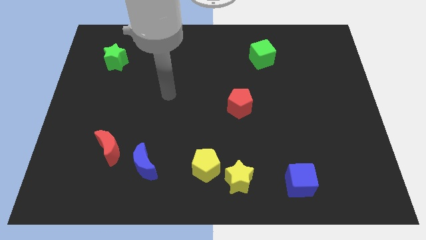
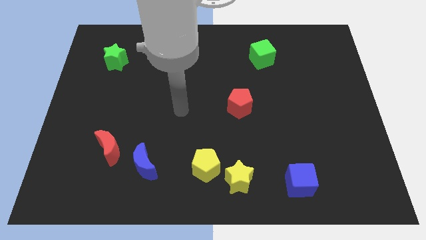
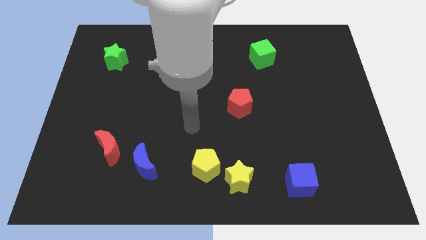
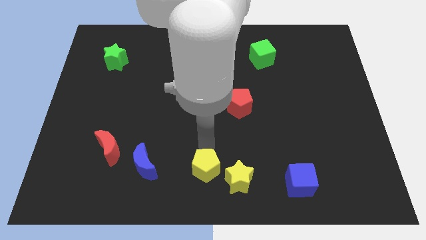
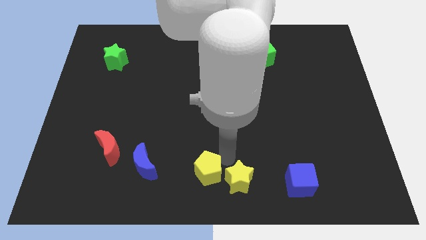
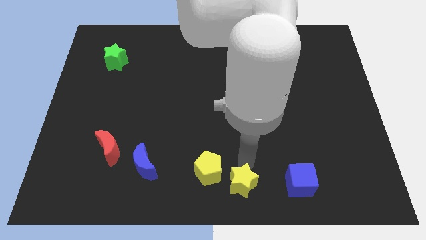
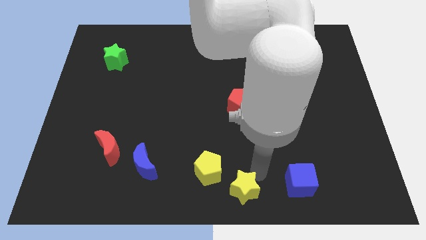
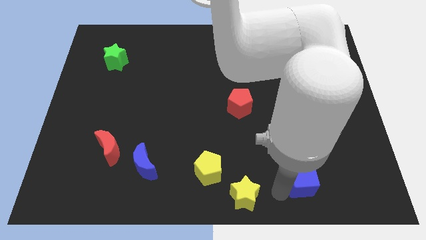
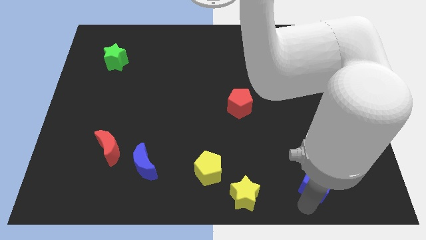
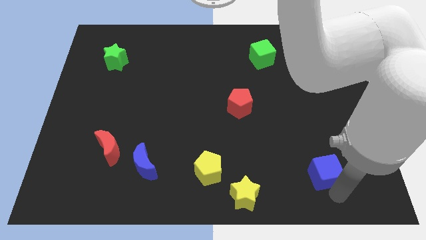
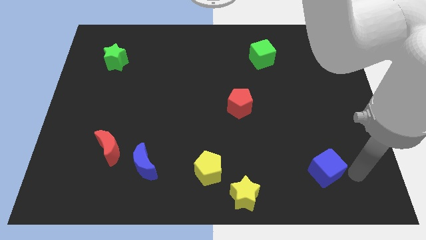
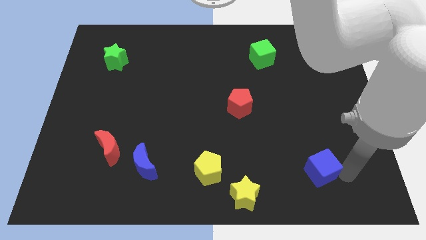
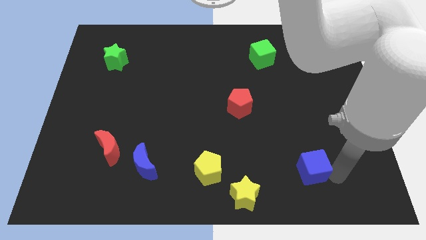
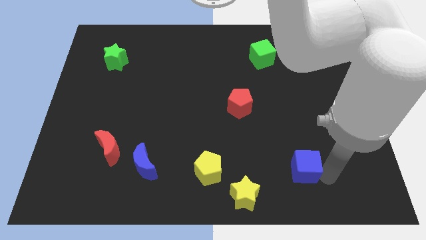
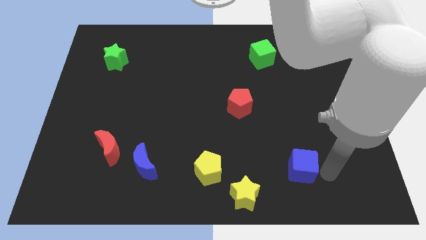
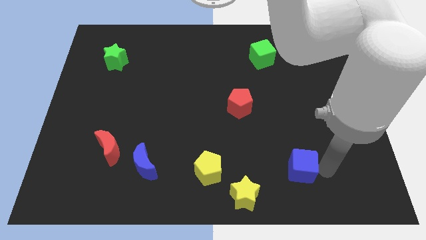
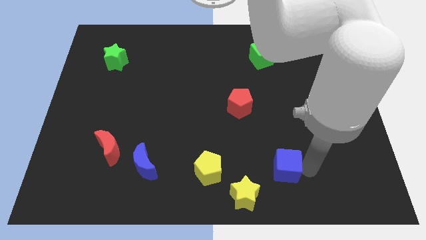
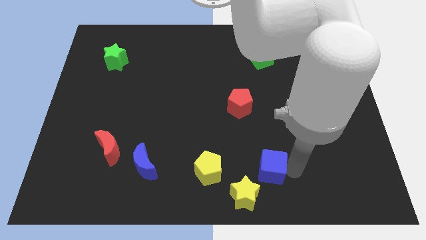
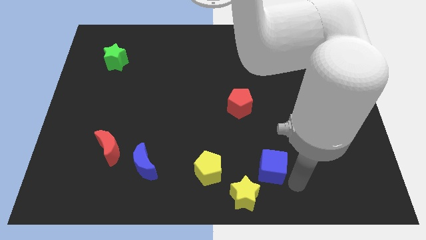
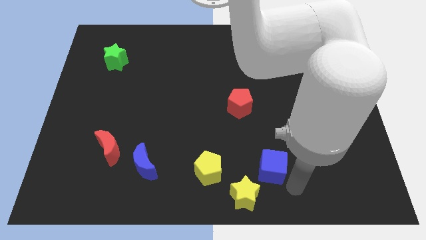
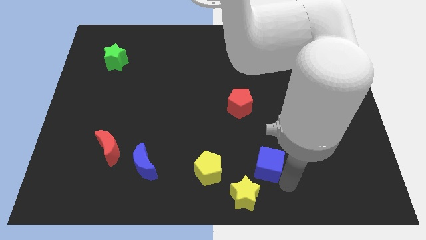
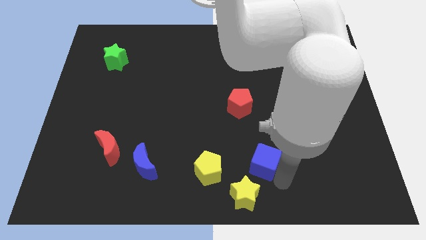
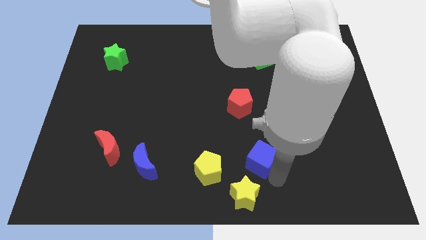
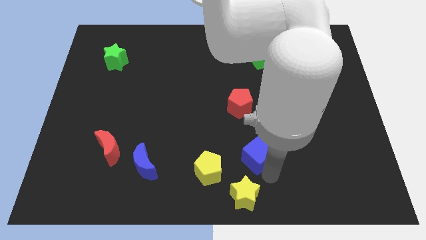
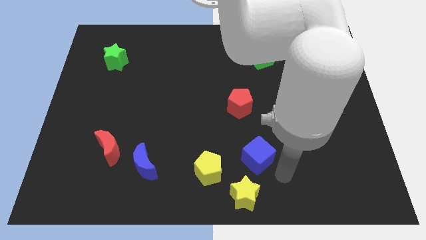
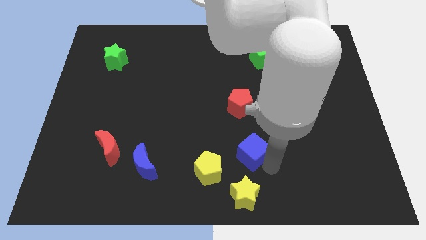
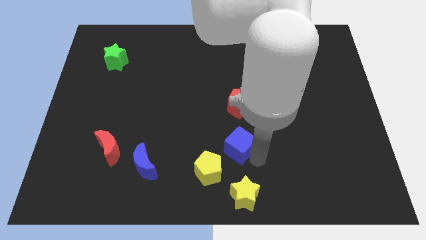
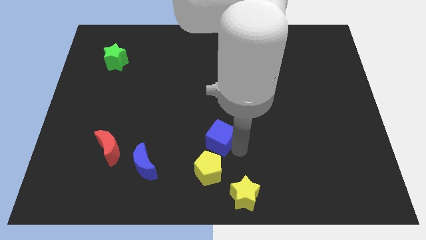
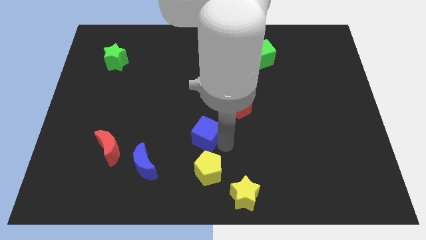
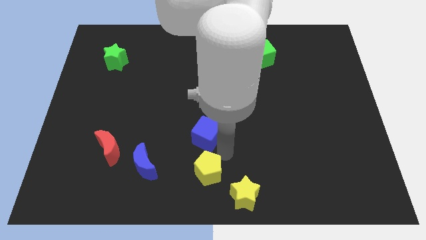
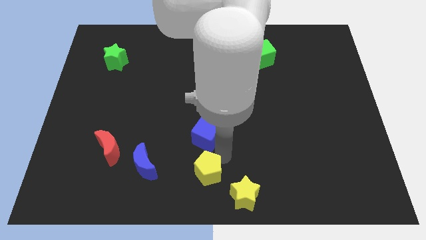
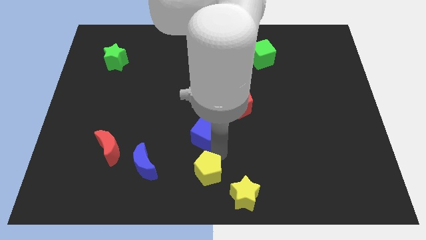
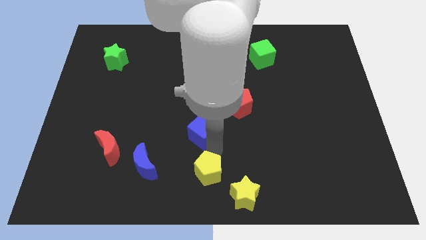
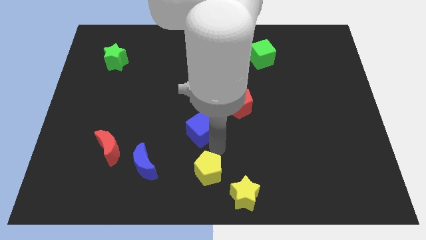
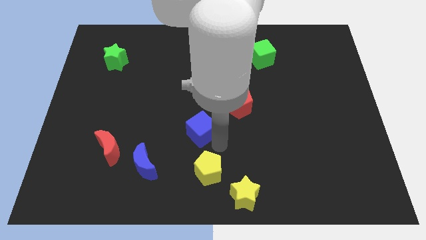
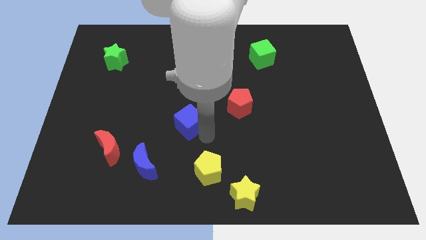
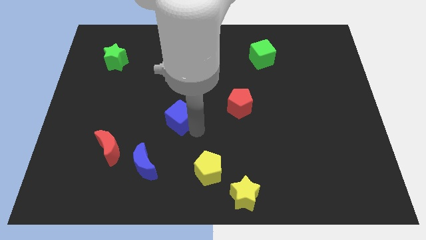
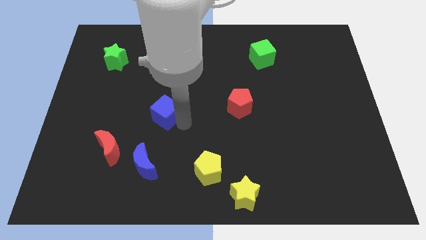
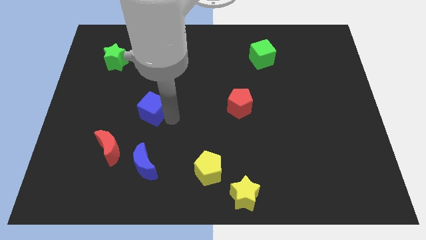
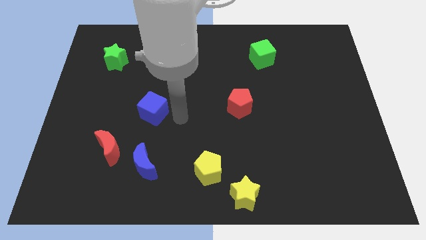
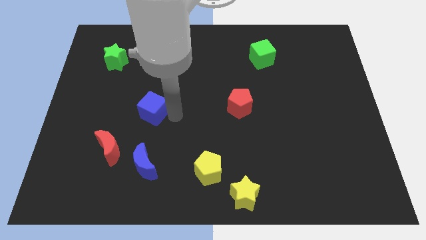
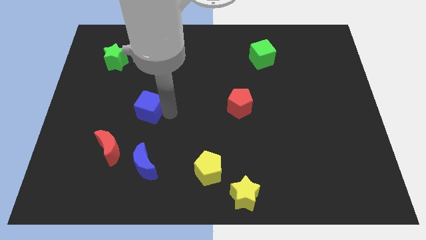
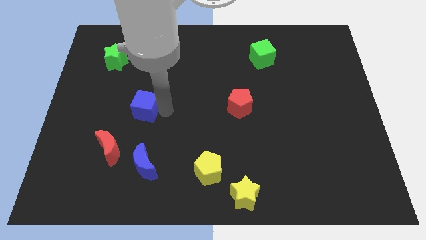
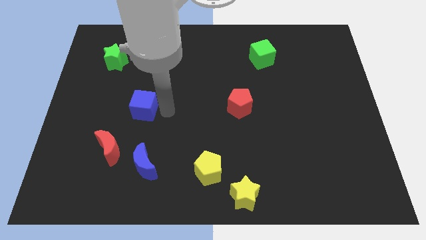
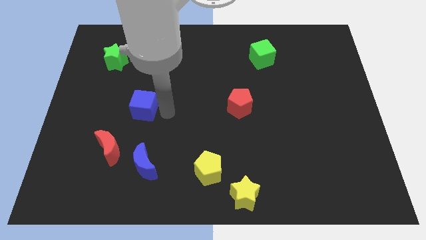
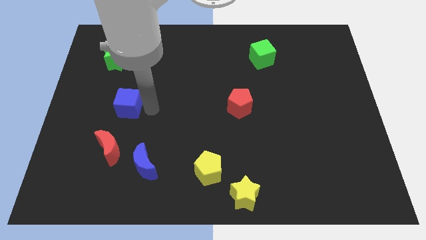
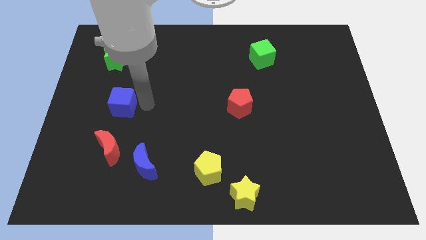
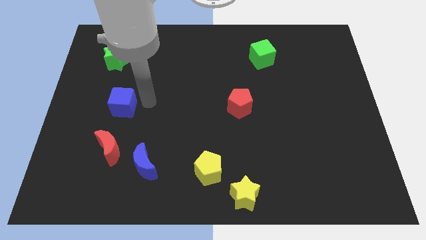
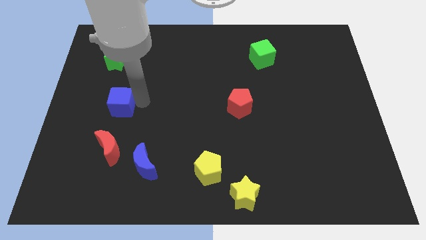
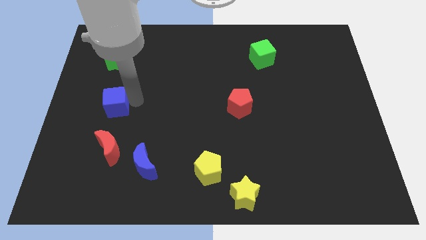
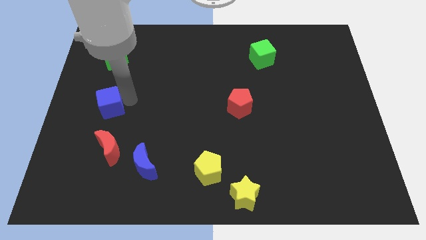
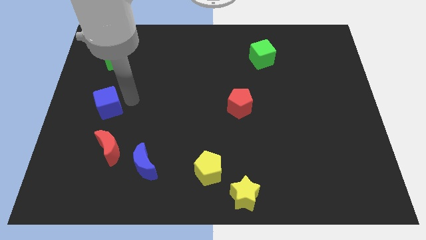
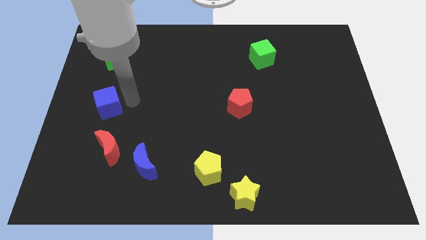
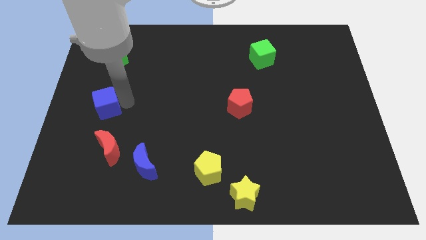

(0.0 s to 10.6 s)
slide the blue cube to the left side of the board
